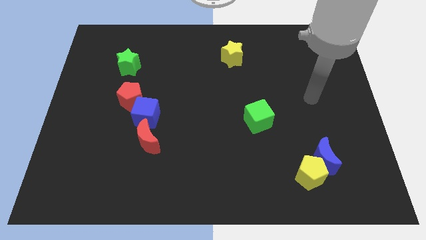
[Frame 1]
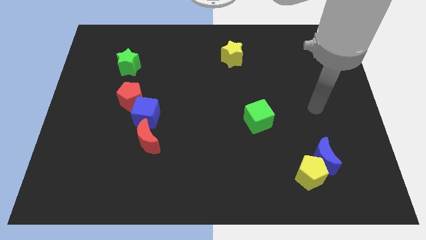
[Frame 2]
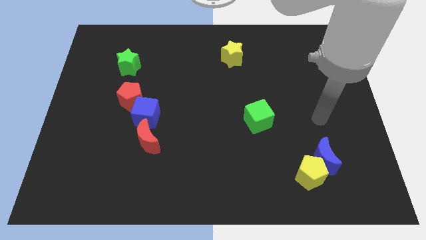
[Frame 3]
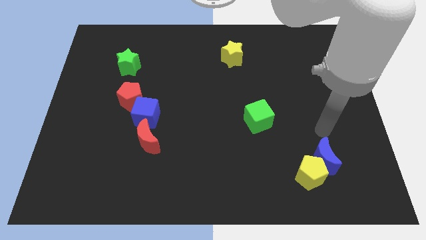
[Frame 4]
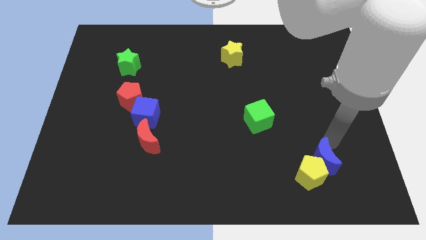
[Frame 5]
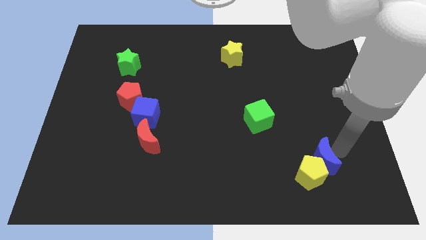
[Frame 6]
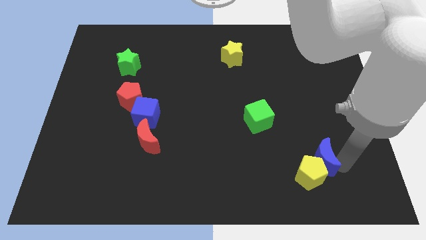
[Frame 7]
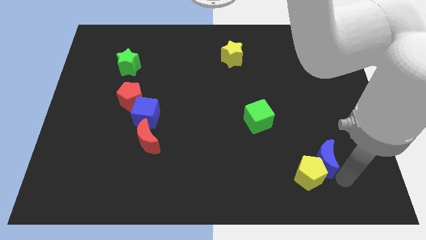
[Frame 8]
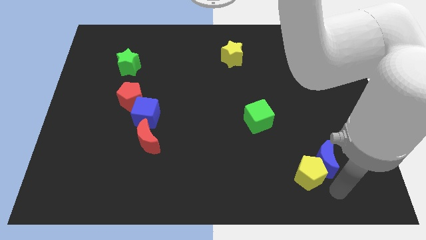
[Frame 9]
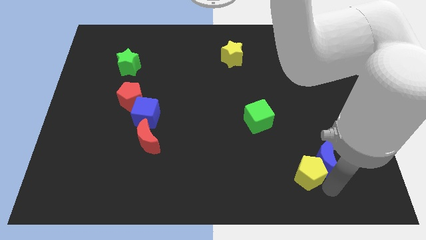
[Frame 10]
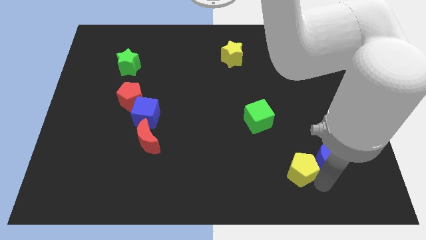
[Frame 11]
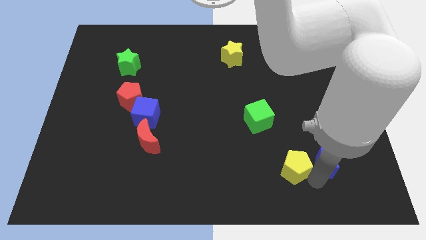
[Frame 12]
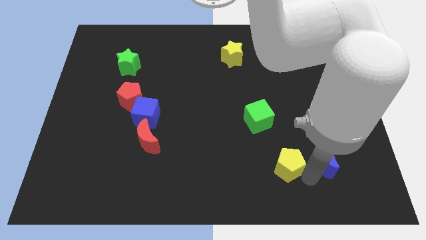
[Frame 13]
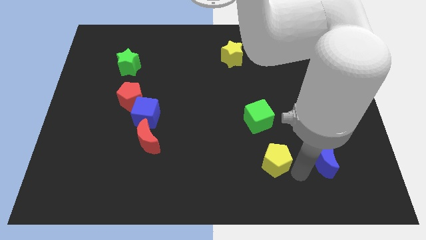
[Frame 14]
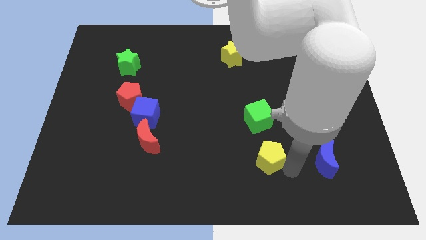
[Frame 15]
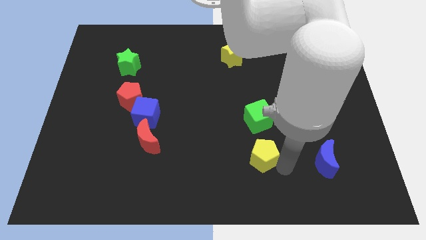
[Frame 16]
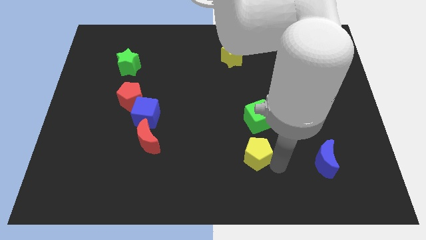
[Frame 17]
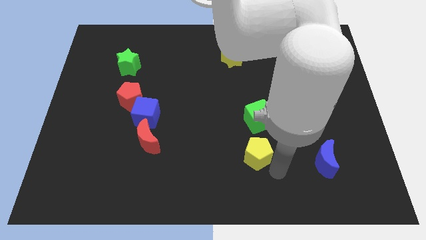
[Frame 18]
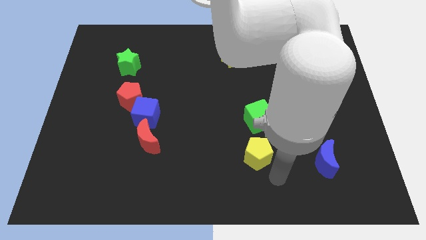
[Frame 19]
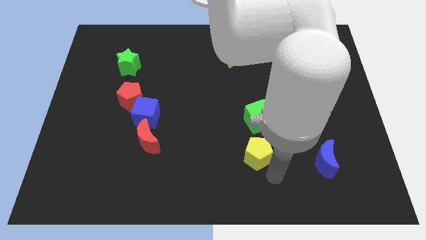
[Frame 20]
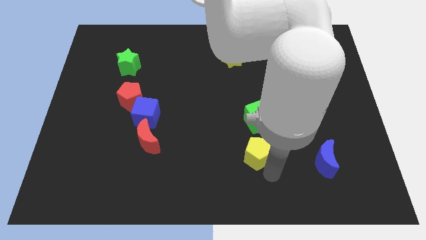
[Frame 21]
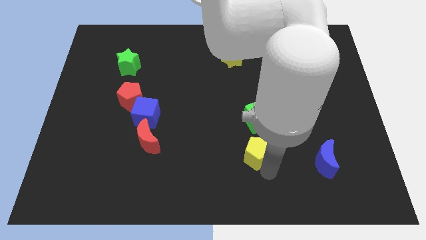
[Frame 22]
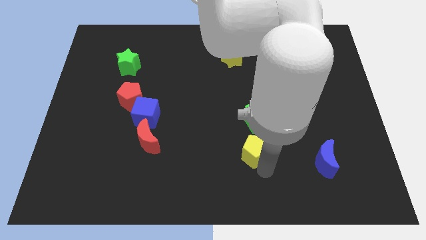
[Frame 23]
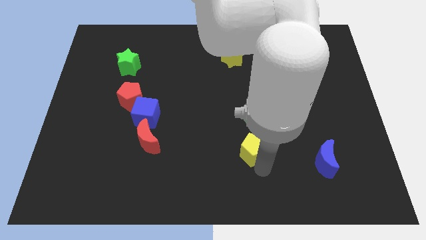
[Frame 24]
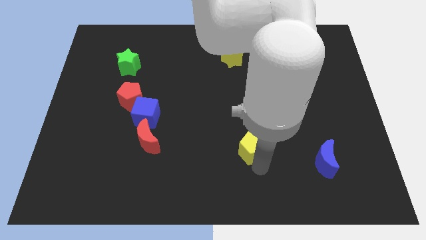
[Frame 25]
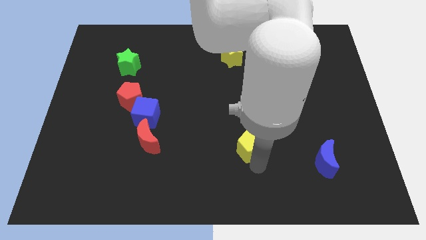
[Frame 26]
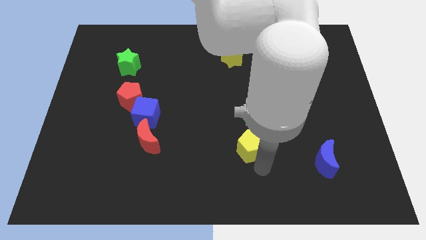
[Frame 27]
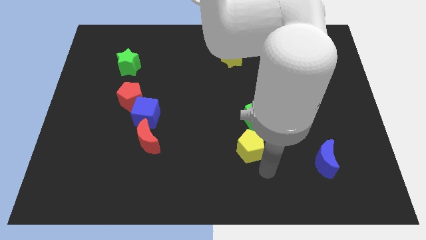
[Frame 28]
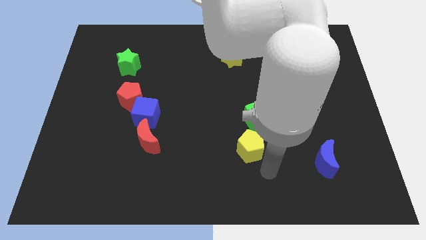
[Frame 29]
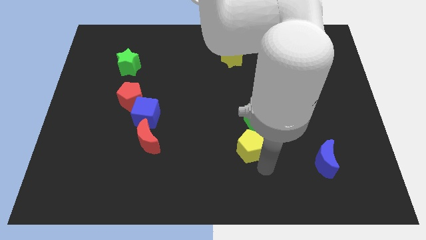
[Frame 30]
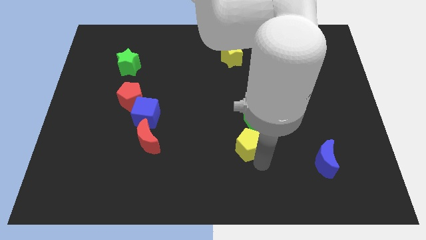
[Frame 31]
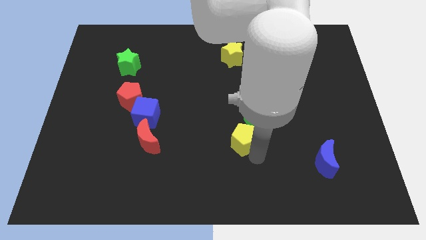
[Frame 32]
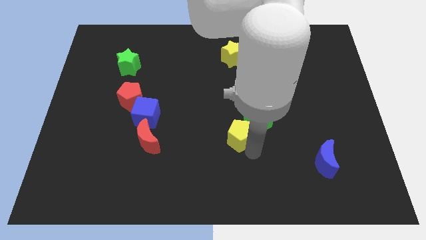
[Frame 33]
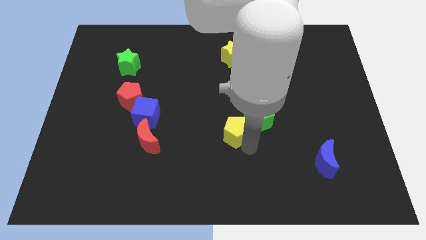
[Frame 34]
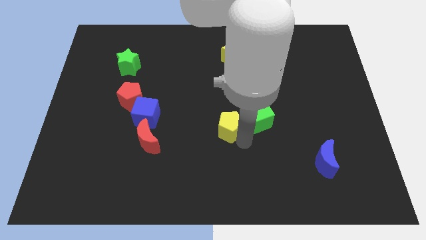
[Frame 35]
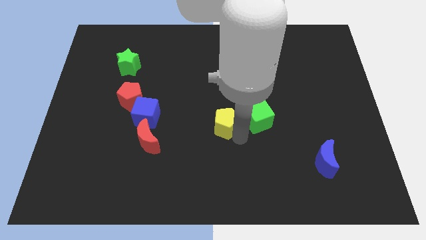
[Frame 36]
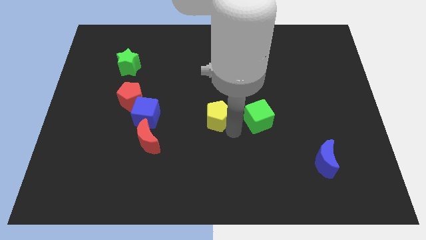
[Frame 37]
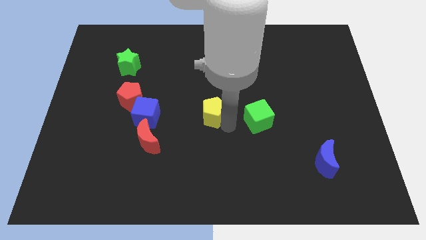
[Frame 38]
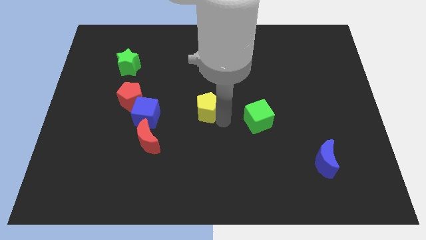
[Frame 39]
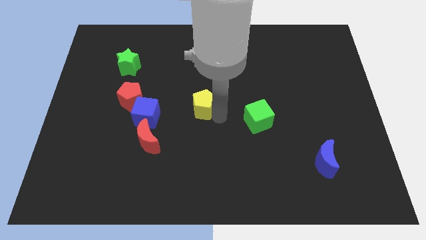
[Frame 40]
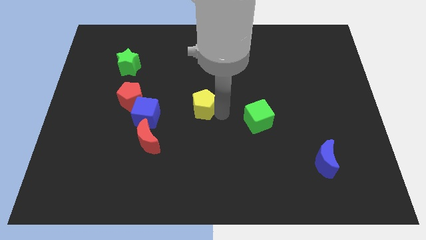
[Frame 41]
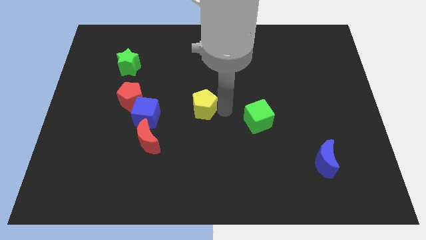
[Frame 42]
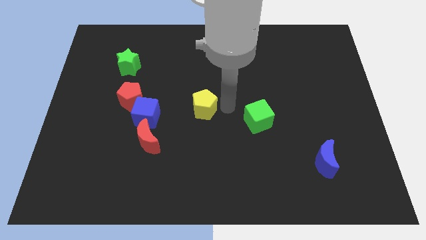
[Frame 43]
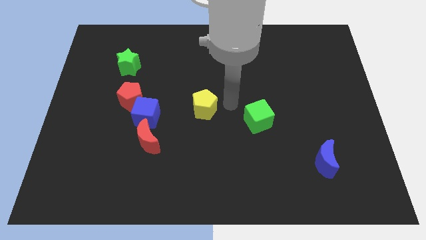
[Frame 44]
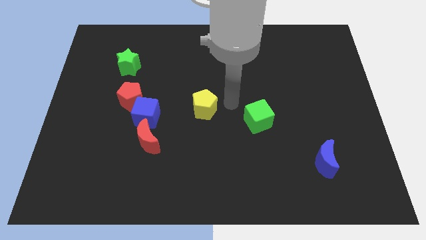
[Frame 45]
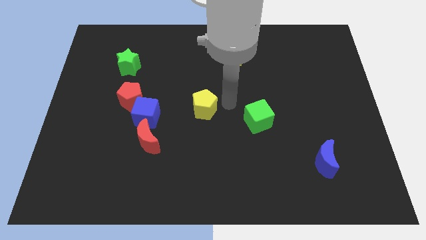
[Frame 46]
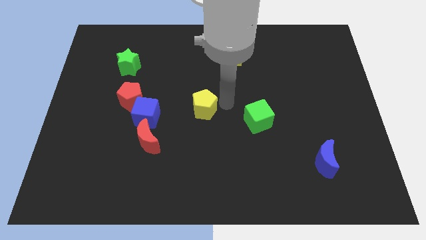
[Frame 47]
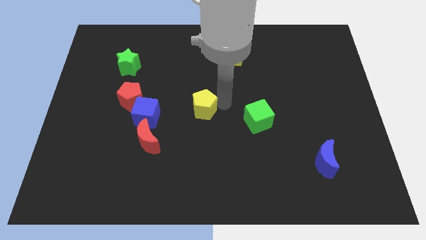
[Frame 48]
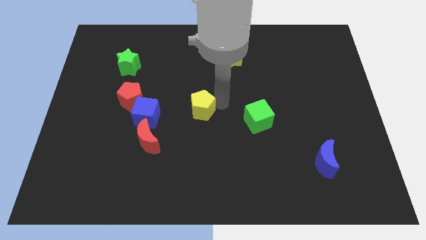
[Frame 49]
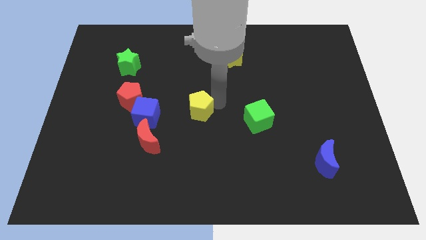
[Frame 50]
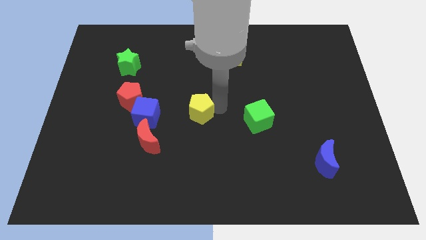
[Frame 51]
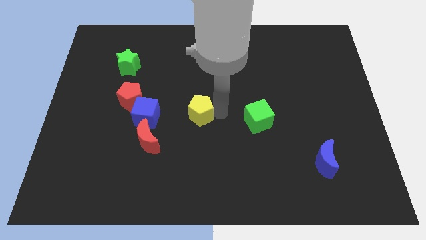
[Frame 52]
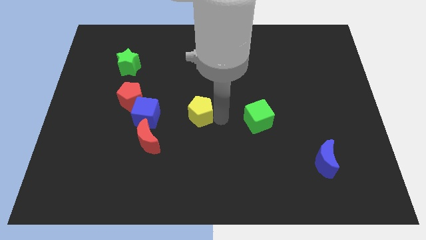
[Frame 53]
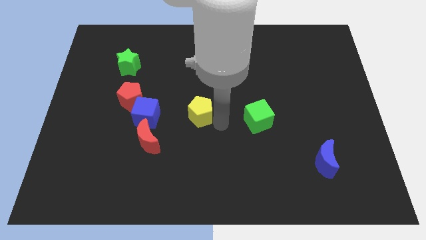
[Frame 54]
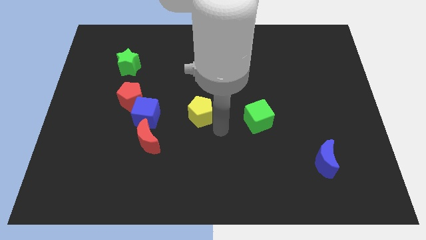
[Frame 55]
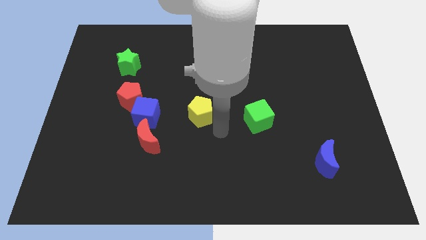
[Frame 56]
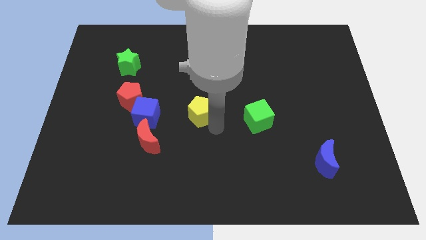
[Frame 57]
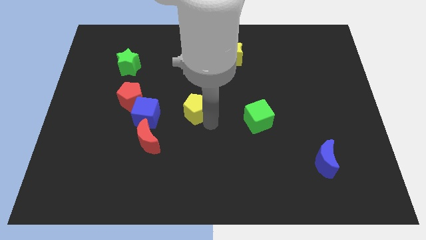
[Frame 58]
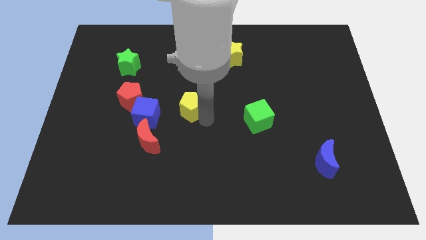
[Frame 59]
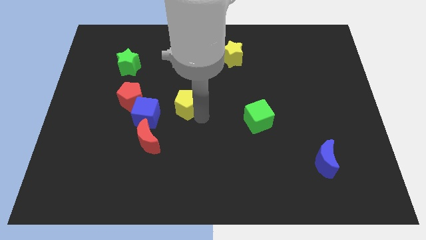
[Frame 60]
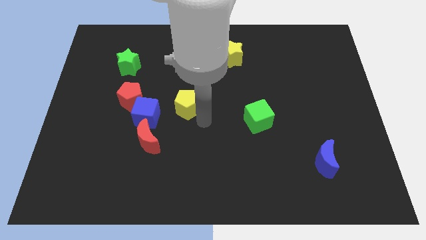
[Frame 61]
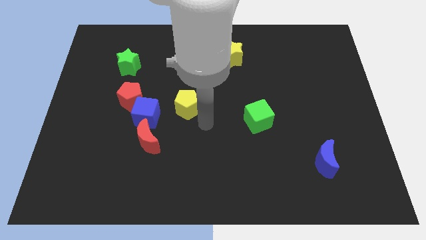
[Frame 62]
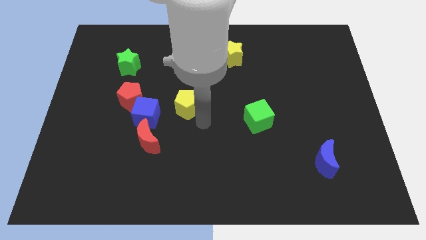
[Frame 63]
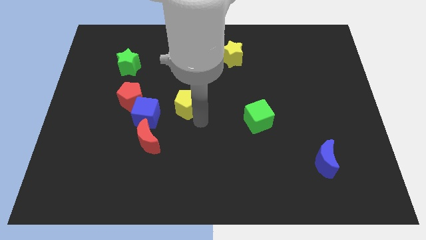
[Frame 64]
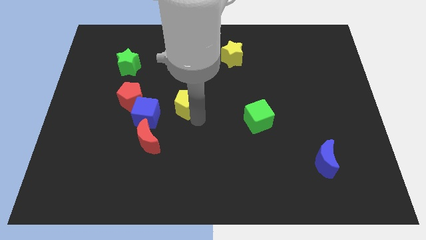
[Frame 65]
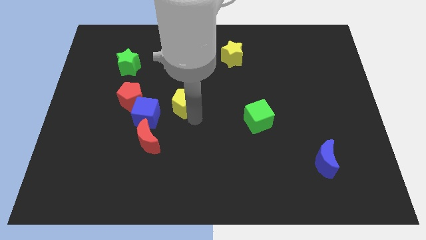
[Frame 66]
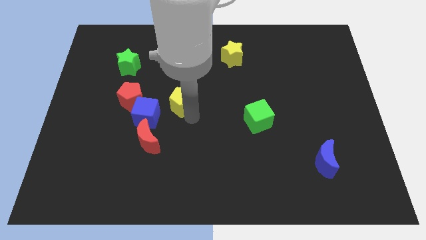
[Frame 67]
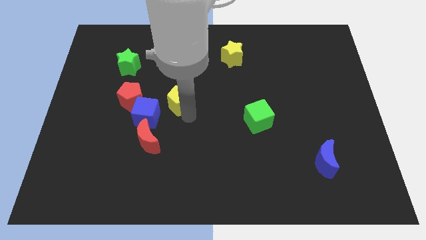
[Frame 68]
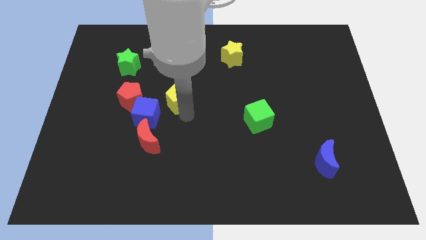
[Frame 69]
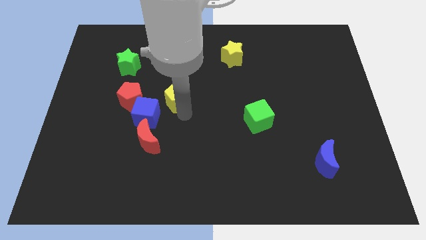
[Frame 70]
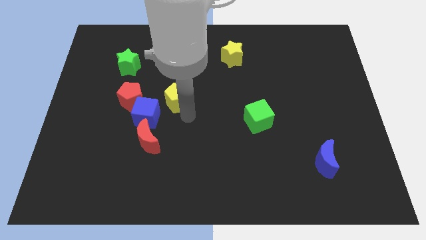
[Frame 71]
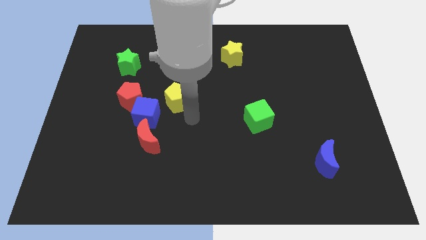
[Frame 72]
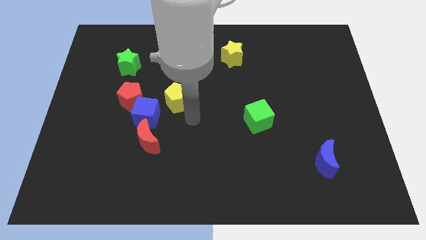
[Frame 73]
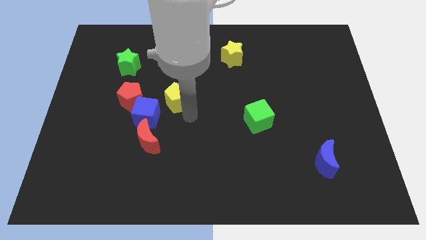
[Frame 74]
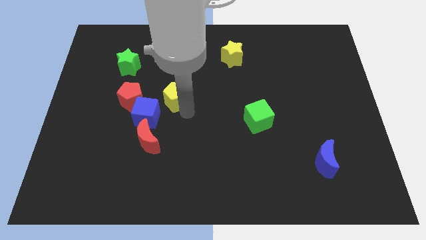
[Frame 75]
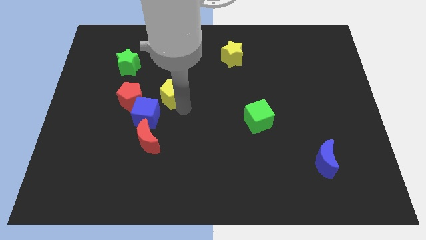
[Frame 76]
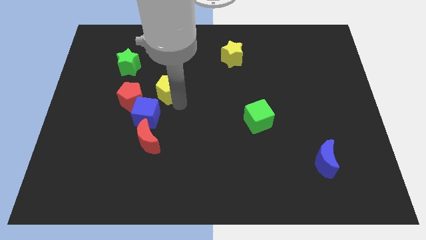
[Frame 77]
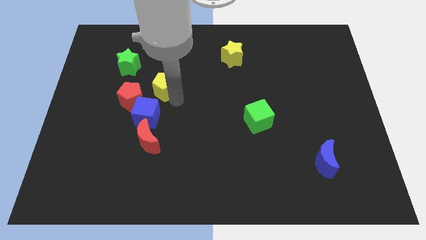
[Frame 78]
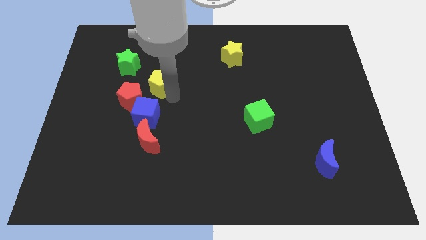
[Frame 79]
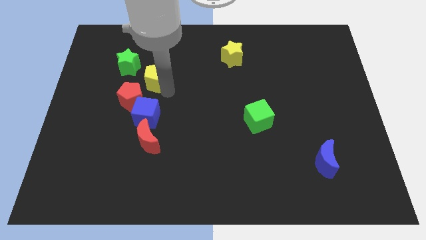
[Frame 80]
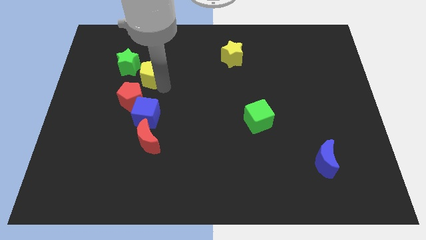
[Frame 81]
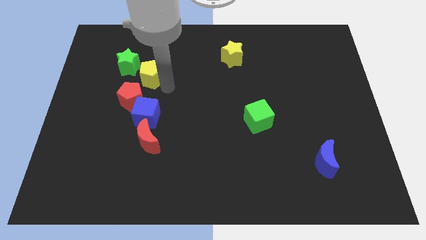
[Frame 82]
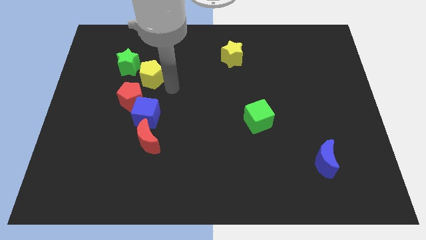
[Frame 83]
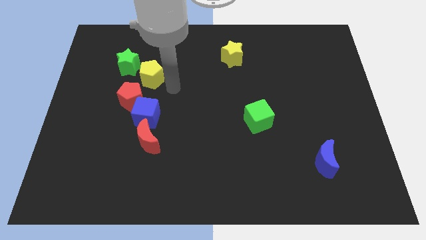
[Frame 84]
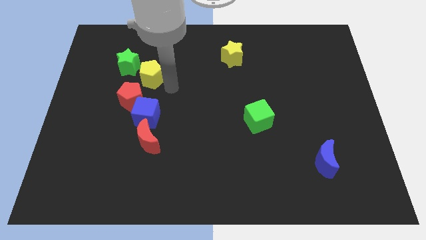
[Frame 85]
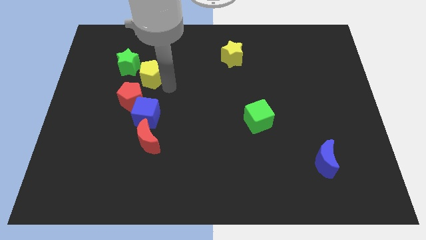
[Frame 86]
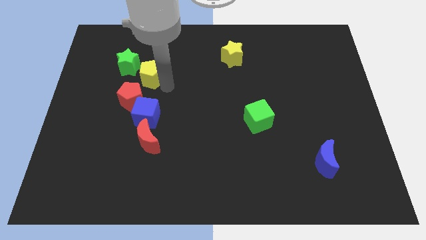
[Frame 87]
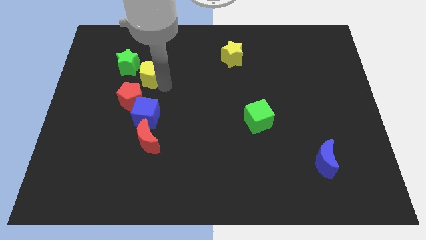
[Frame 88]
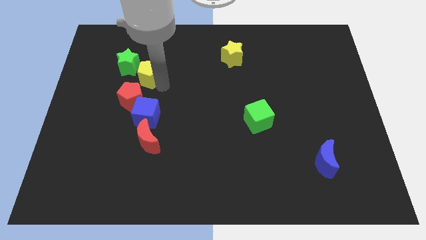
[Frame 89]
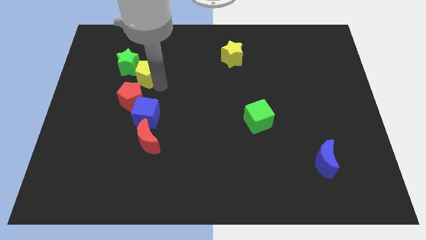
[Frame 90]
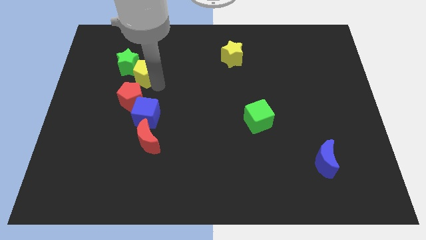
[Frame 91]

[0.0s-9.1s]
push the yellow pentagon close to the green star
